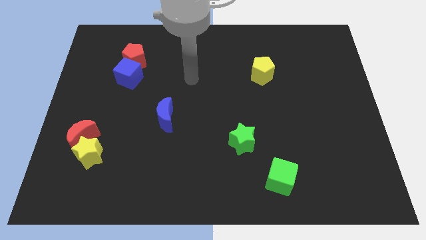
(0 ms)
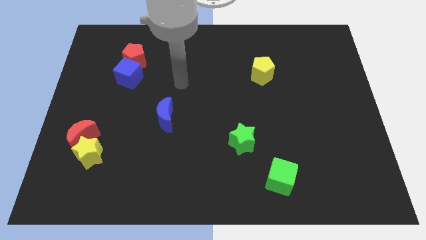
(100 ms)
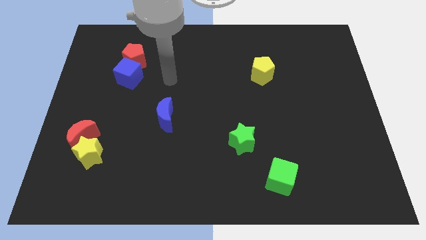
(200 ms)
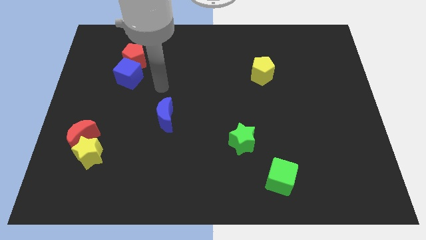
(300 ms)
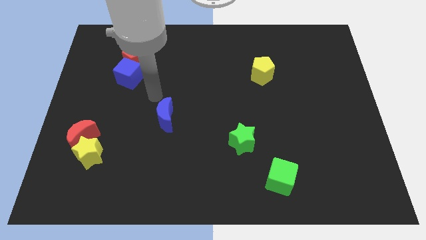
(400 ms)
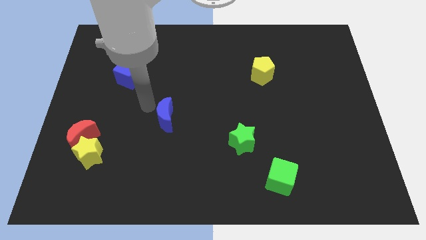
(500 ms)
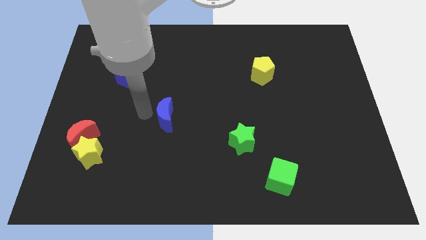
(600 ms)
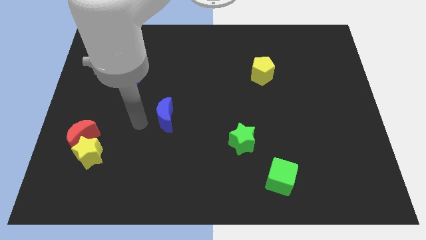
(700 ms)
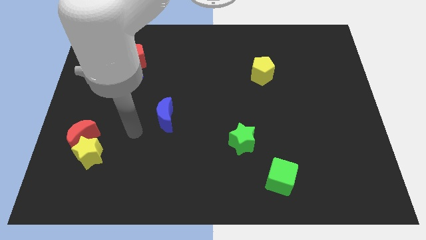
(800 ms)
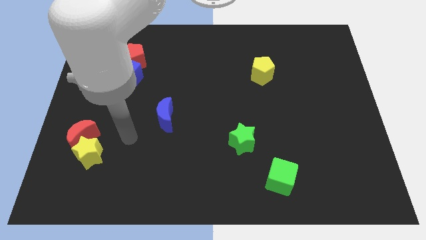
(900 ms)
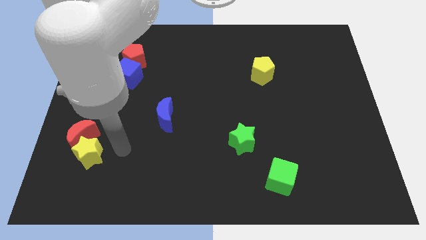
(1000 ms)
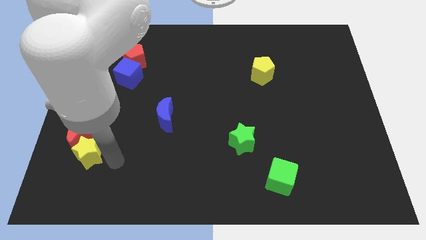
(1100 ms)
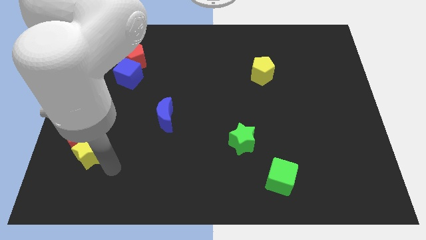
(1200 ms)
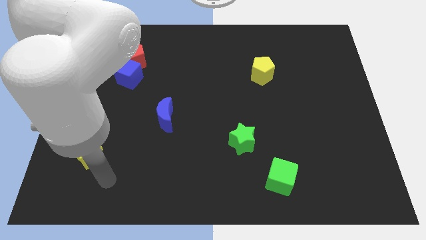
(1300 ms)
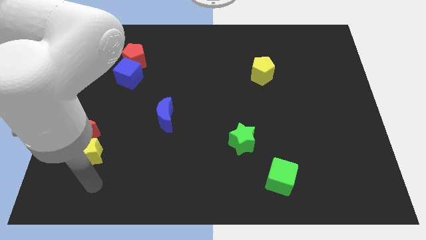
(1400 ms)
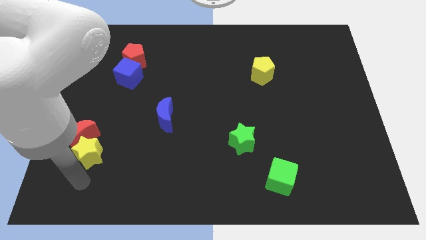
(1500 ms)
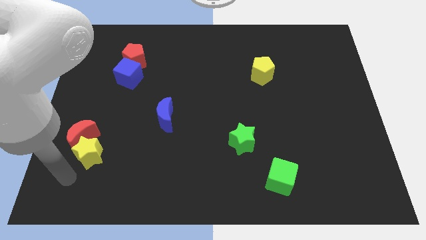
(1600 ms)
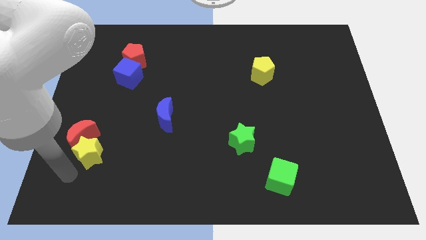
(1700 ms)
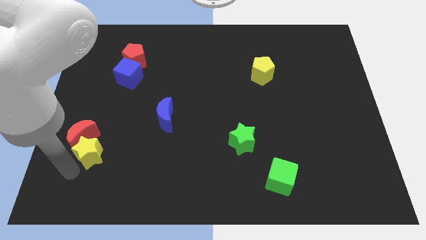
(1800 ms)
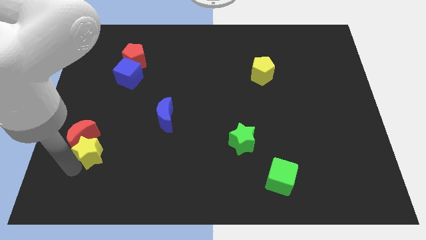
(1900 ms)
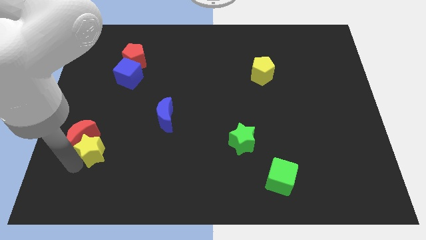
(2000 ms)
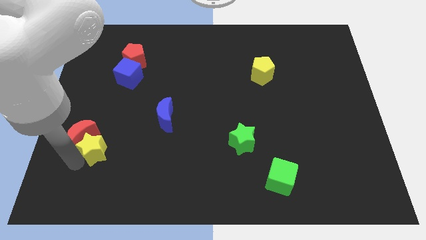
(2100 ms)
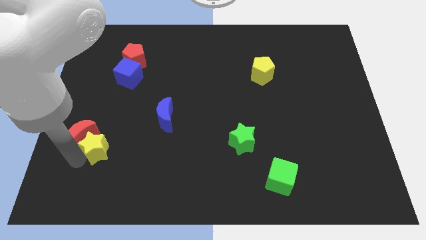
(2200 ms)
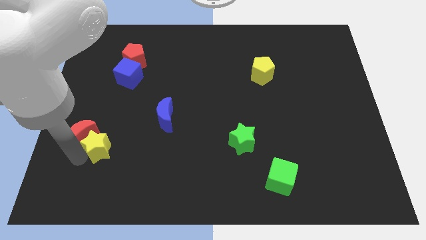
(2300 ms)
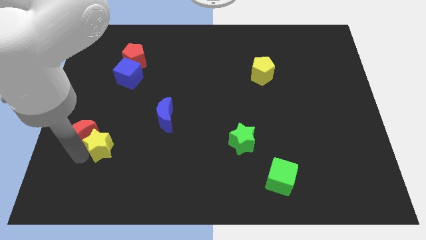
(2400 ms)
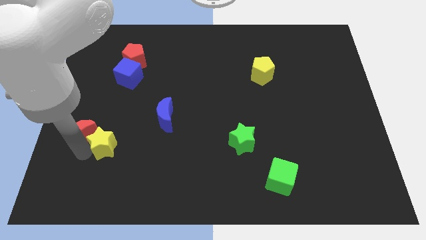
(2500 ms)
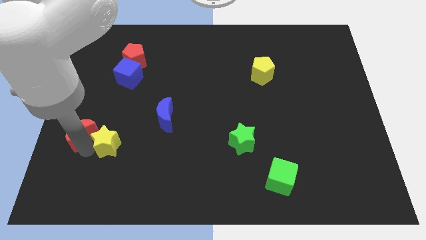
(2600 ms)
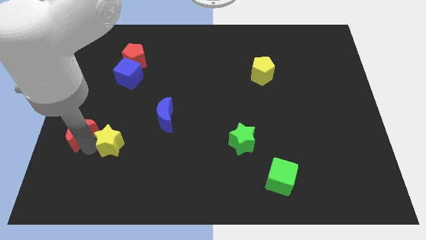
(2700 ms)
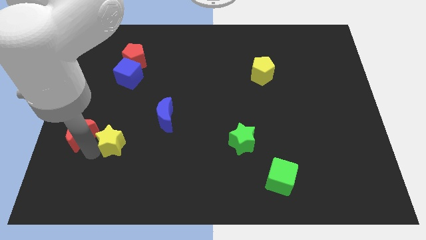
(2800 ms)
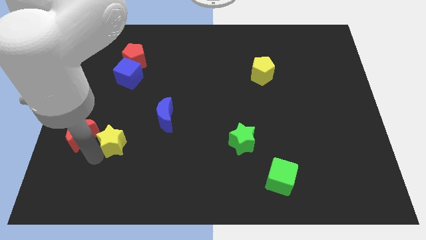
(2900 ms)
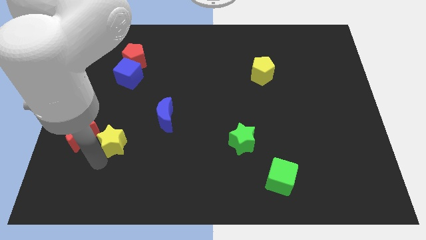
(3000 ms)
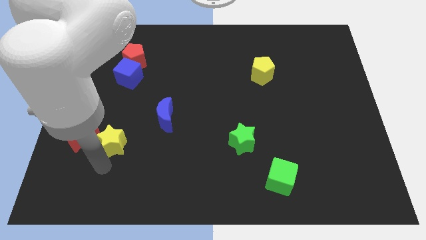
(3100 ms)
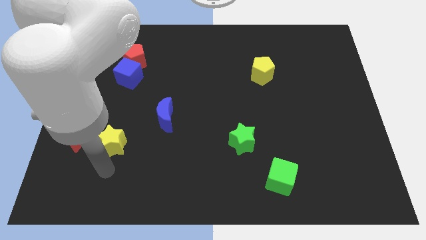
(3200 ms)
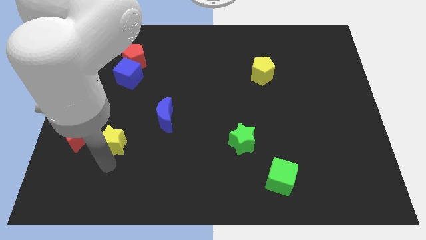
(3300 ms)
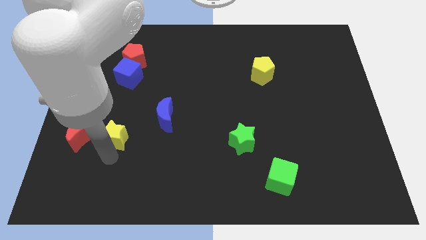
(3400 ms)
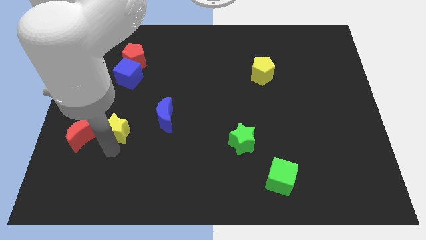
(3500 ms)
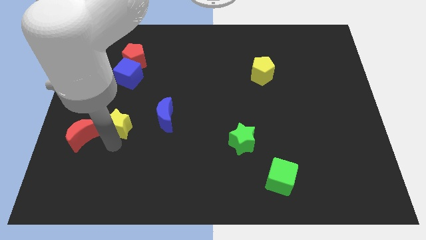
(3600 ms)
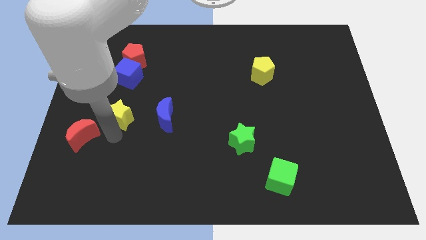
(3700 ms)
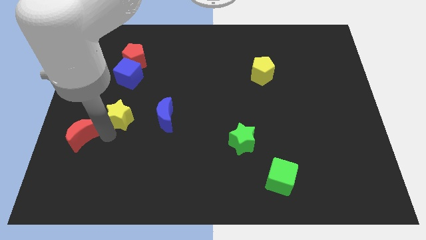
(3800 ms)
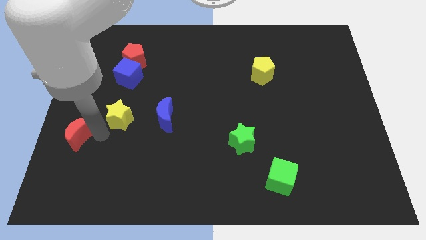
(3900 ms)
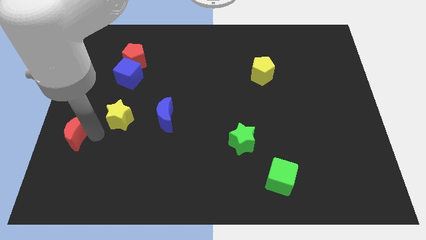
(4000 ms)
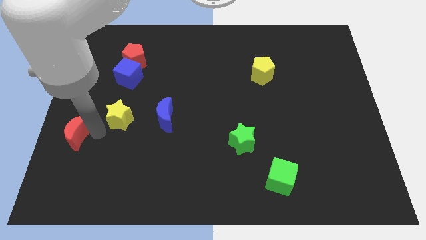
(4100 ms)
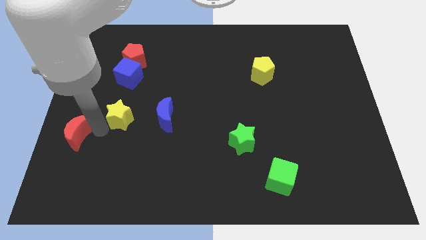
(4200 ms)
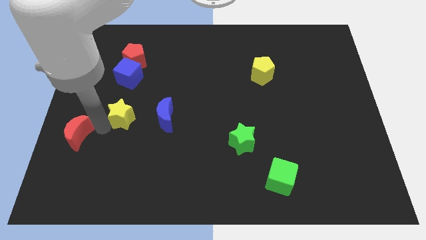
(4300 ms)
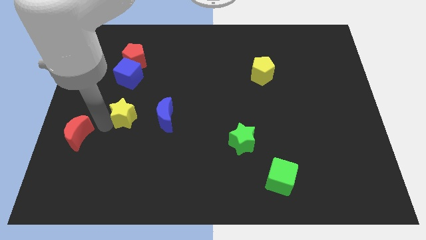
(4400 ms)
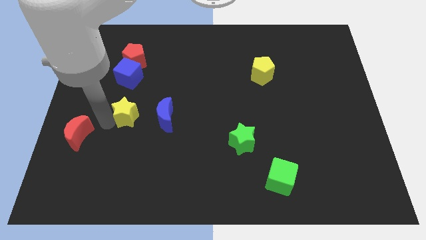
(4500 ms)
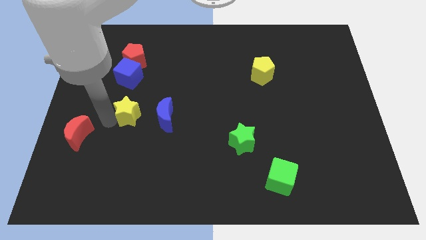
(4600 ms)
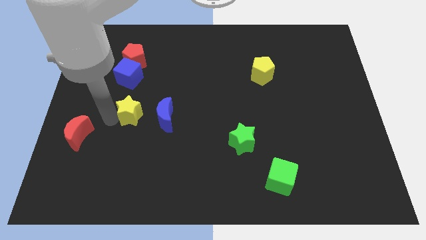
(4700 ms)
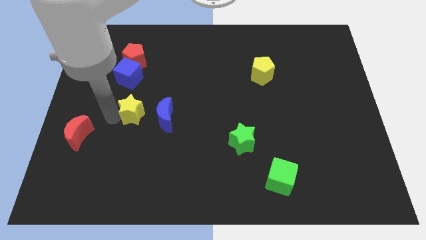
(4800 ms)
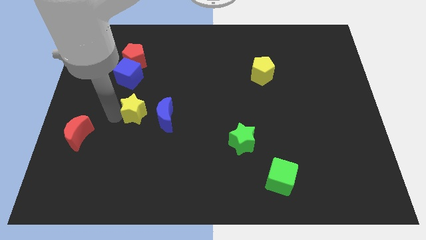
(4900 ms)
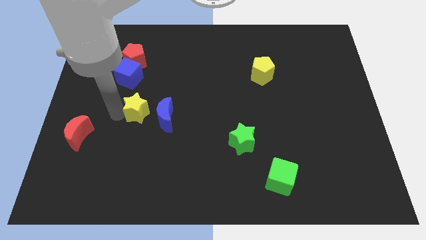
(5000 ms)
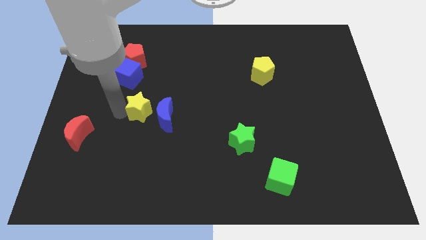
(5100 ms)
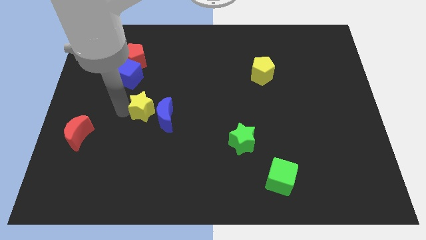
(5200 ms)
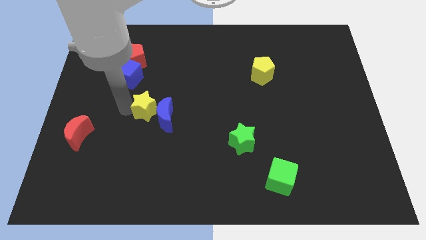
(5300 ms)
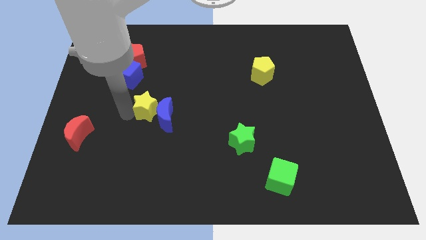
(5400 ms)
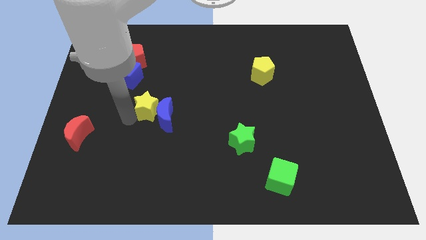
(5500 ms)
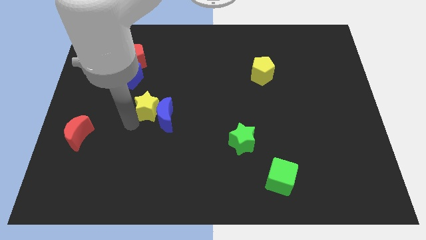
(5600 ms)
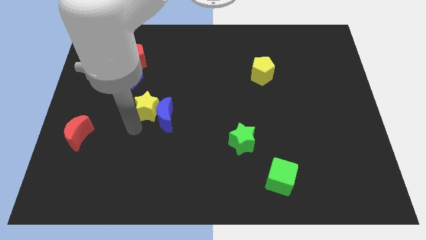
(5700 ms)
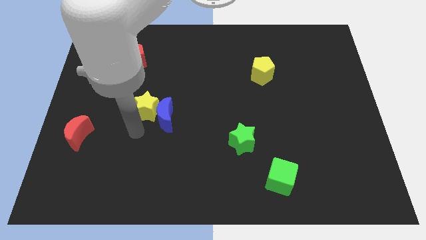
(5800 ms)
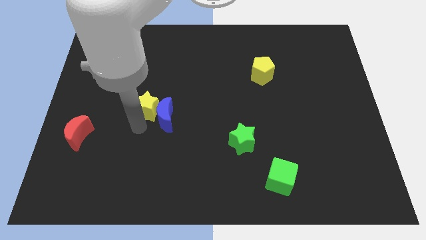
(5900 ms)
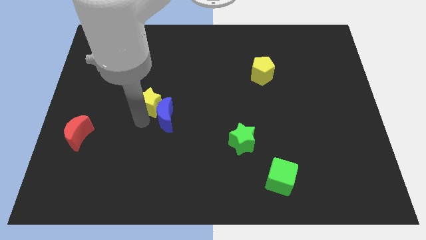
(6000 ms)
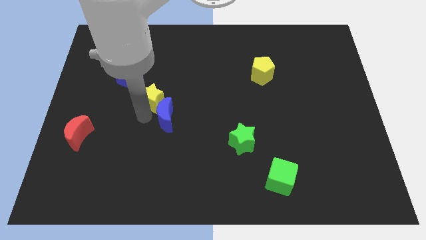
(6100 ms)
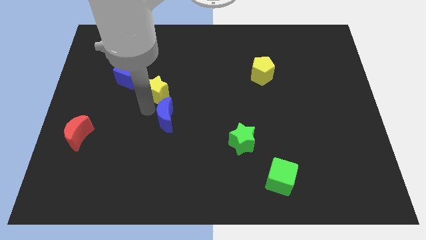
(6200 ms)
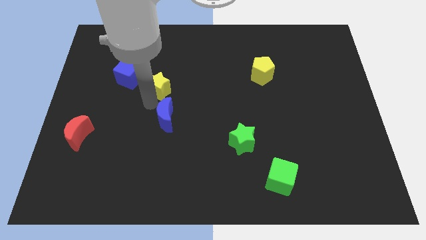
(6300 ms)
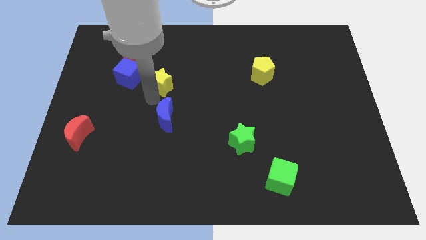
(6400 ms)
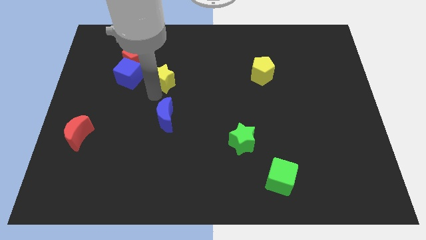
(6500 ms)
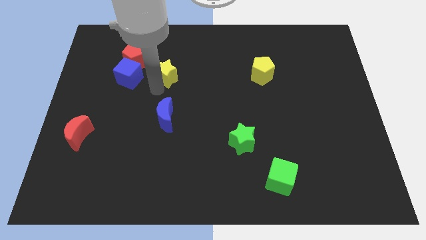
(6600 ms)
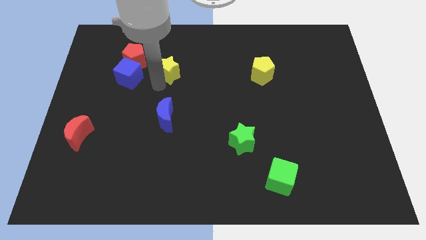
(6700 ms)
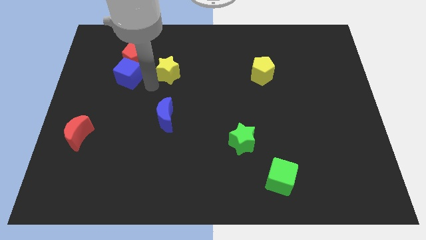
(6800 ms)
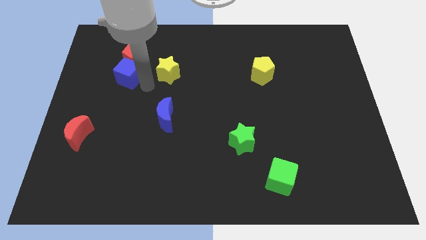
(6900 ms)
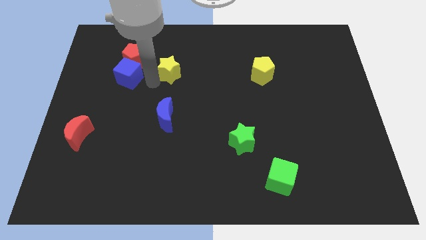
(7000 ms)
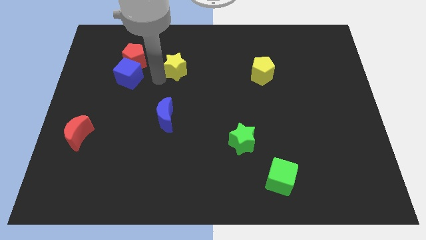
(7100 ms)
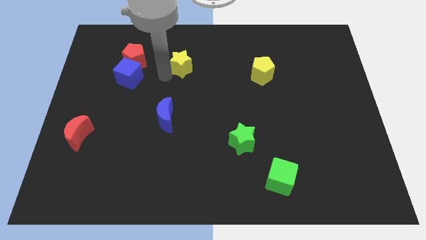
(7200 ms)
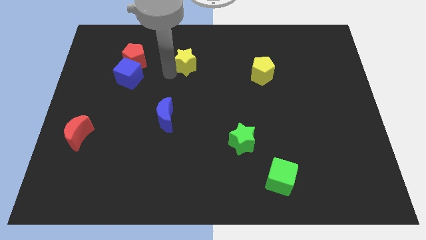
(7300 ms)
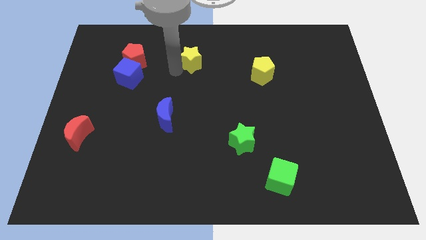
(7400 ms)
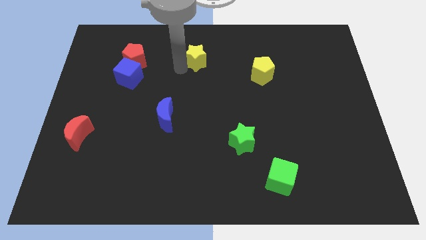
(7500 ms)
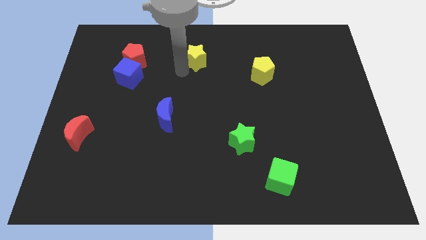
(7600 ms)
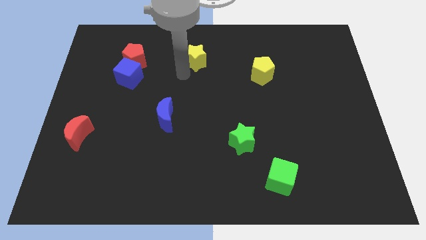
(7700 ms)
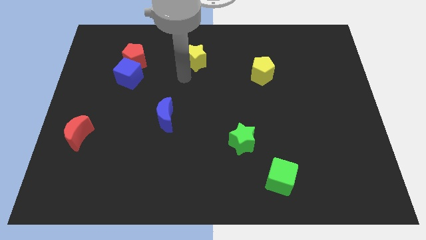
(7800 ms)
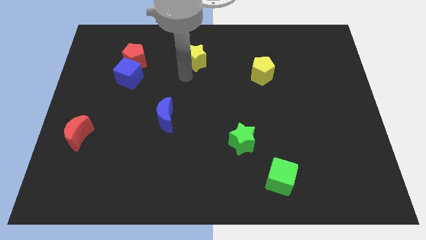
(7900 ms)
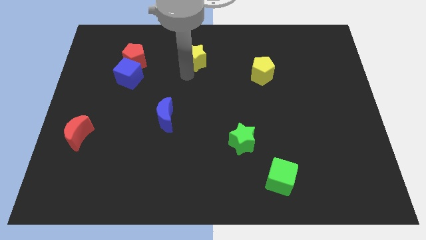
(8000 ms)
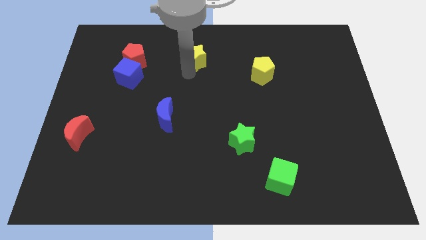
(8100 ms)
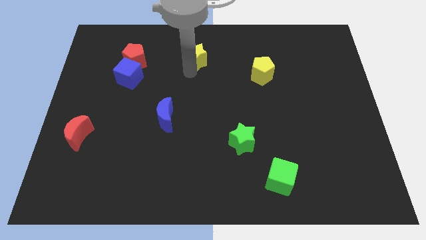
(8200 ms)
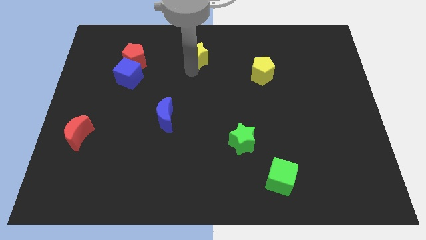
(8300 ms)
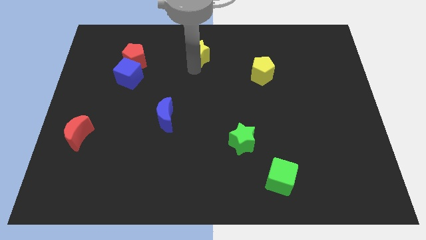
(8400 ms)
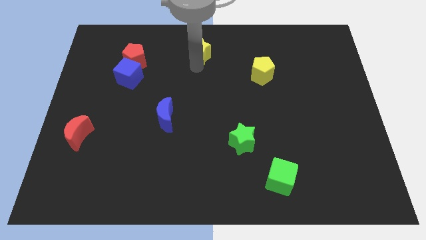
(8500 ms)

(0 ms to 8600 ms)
slide the yellow star to the top
